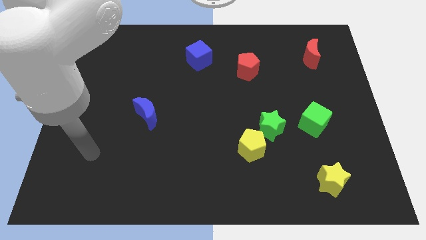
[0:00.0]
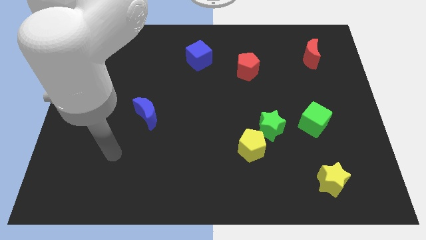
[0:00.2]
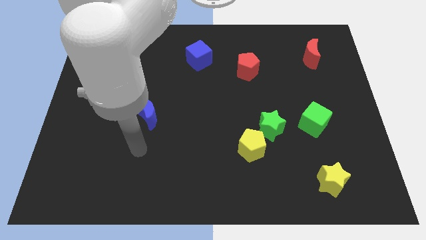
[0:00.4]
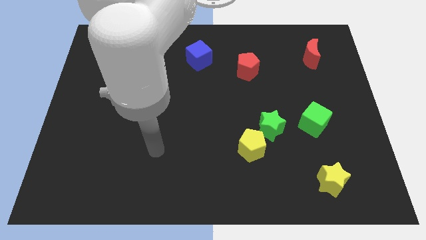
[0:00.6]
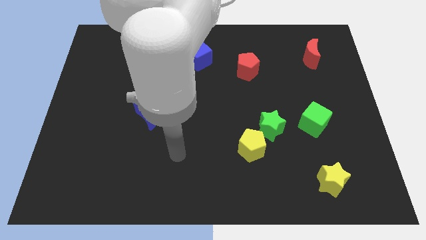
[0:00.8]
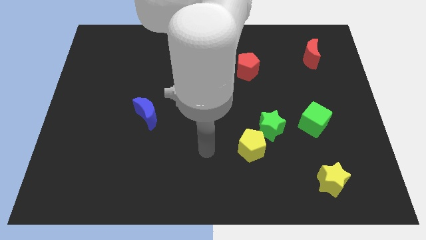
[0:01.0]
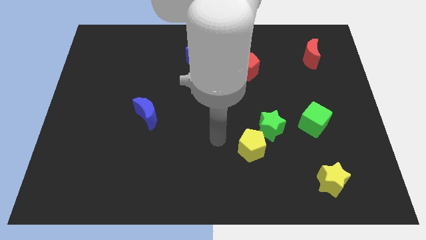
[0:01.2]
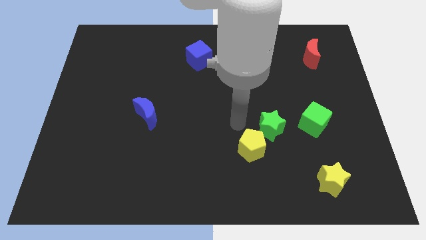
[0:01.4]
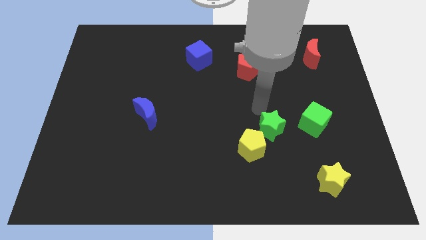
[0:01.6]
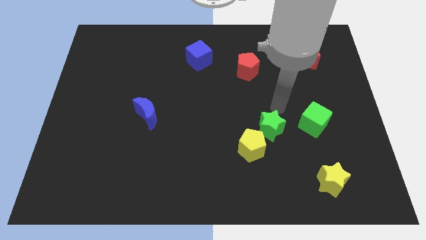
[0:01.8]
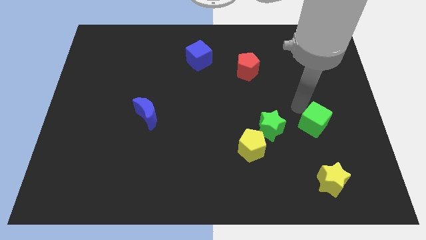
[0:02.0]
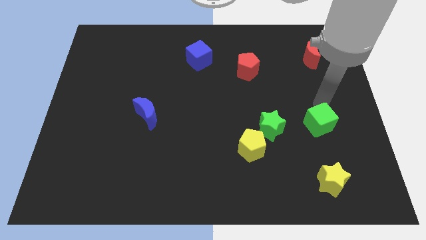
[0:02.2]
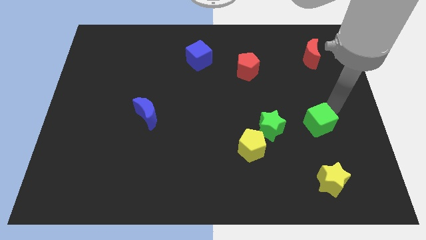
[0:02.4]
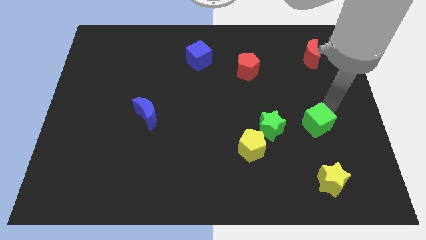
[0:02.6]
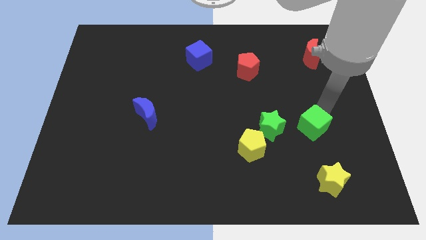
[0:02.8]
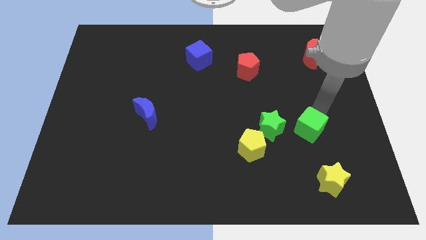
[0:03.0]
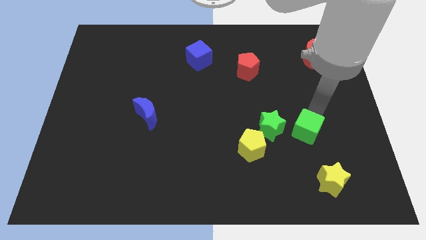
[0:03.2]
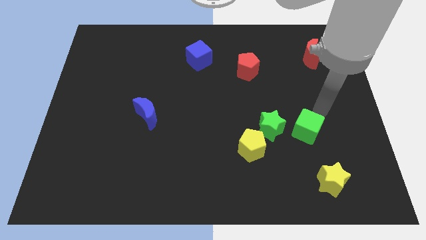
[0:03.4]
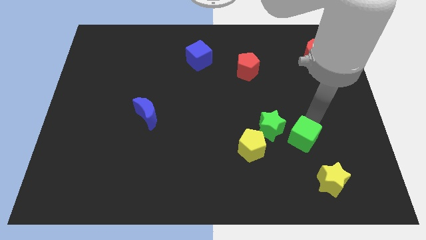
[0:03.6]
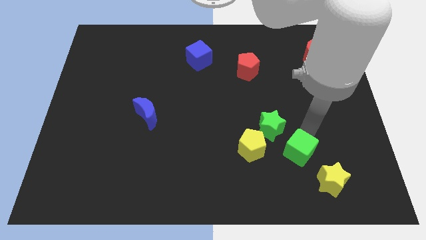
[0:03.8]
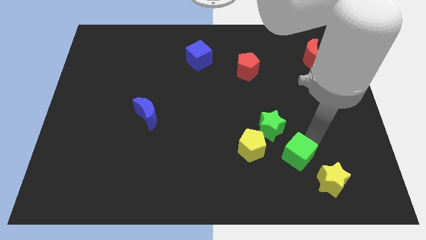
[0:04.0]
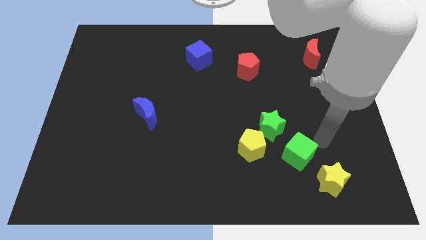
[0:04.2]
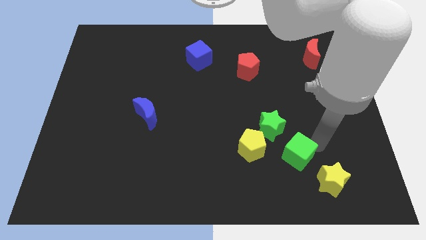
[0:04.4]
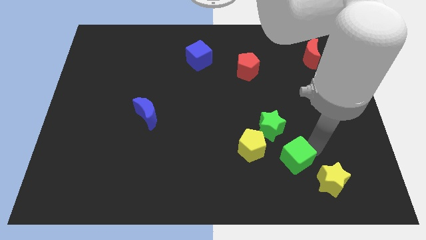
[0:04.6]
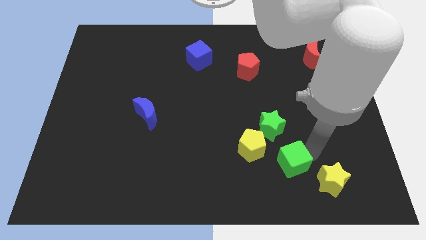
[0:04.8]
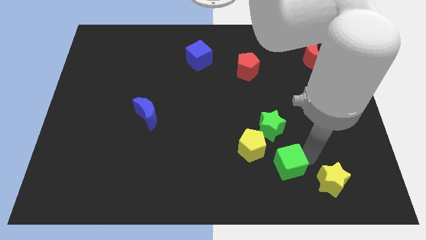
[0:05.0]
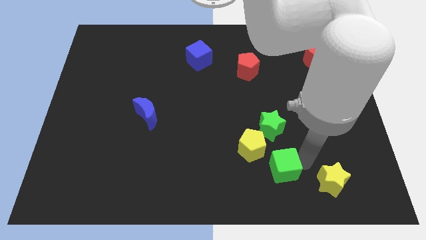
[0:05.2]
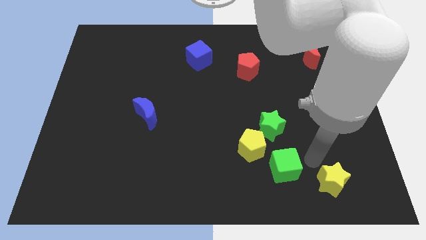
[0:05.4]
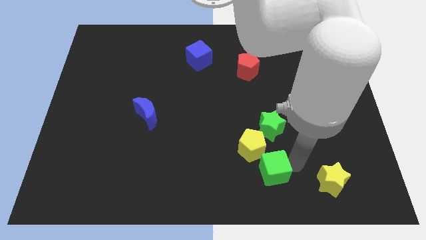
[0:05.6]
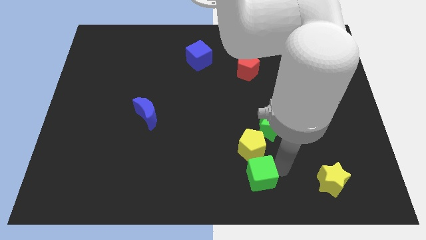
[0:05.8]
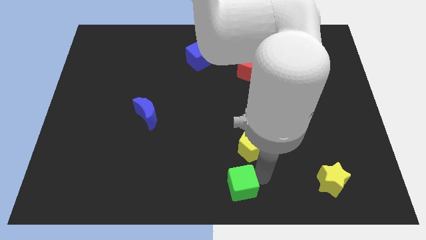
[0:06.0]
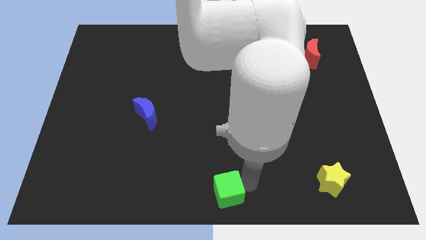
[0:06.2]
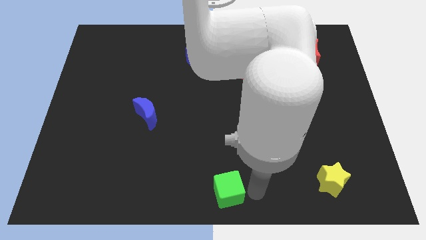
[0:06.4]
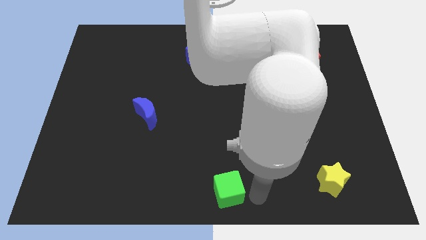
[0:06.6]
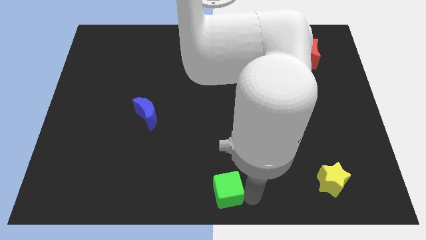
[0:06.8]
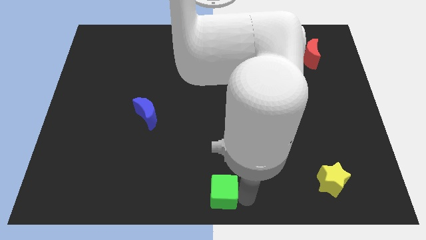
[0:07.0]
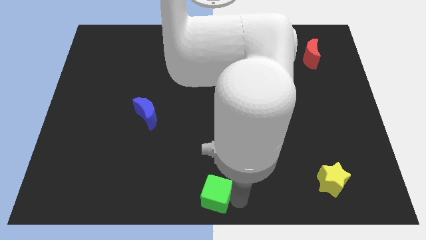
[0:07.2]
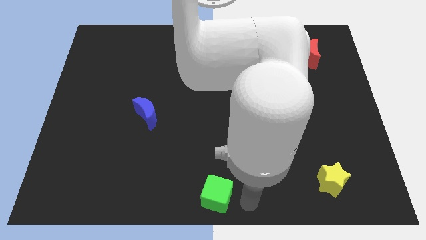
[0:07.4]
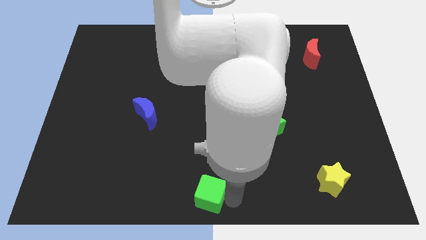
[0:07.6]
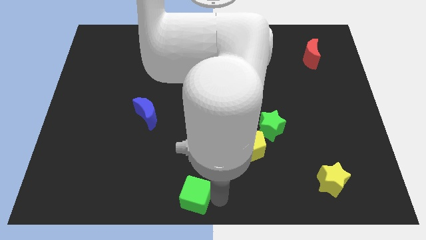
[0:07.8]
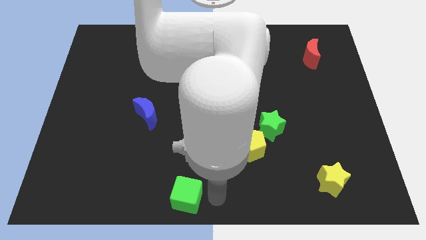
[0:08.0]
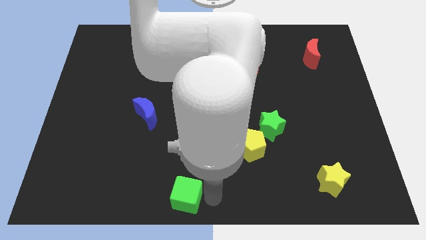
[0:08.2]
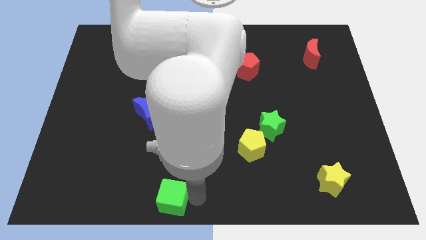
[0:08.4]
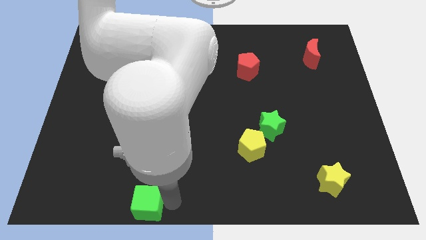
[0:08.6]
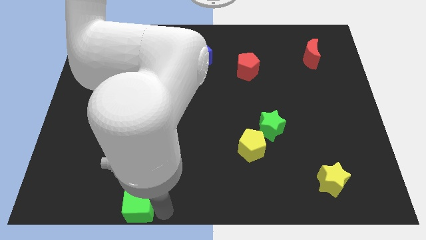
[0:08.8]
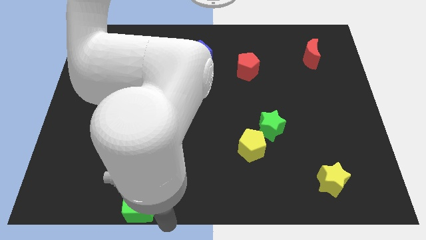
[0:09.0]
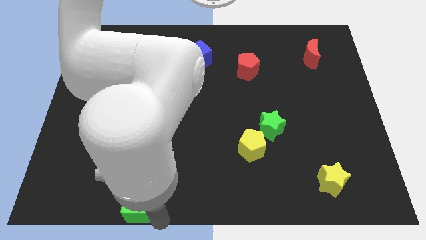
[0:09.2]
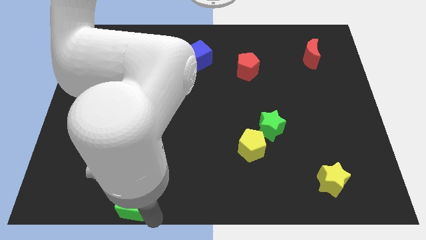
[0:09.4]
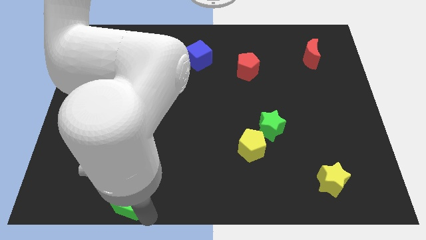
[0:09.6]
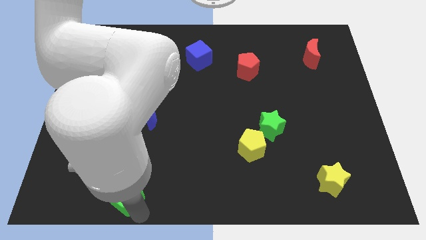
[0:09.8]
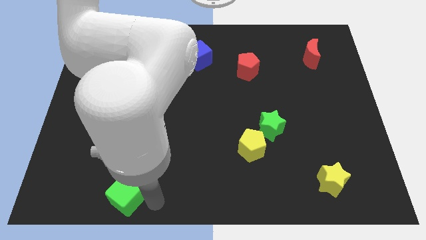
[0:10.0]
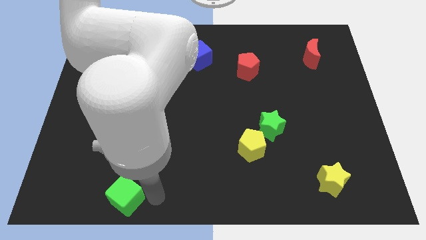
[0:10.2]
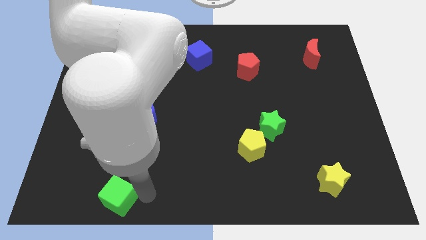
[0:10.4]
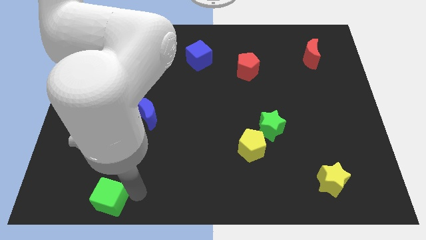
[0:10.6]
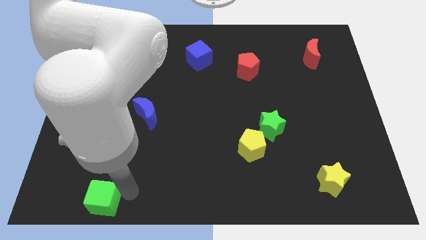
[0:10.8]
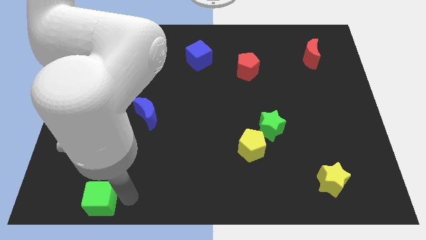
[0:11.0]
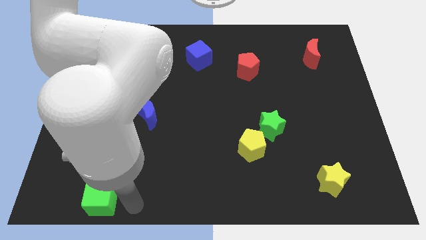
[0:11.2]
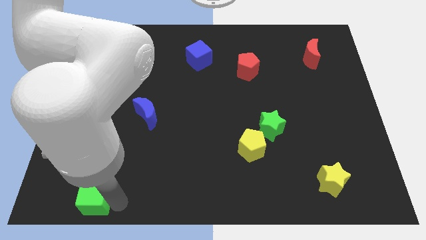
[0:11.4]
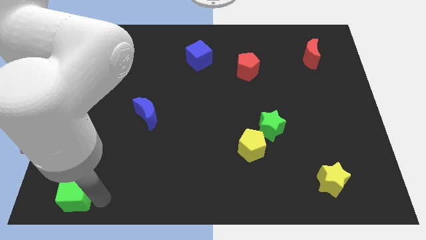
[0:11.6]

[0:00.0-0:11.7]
move the green cube to the bottom left of the board
